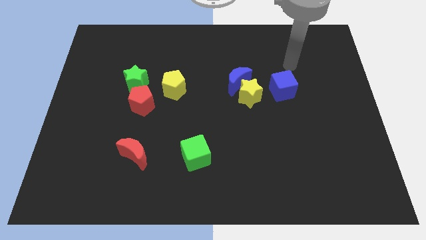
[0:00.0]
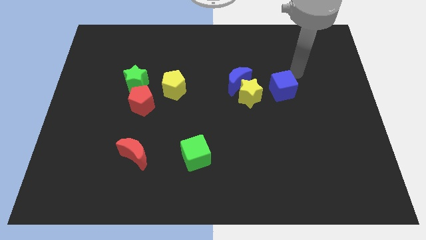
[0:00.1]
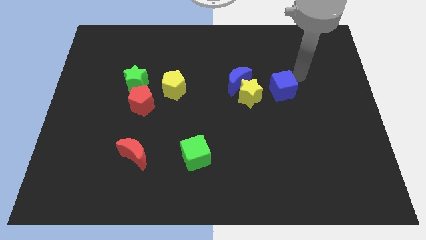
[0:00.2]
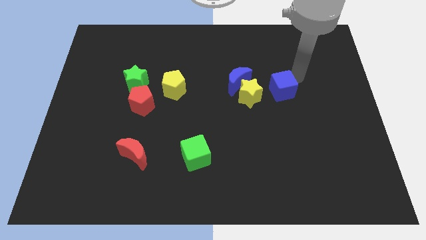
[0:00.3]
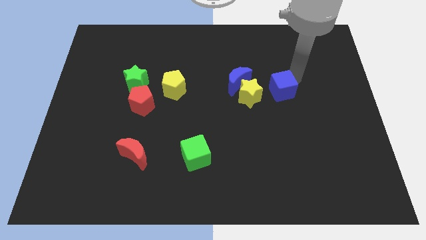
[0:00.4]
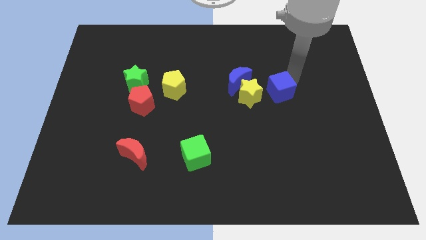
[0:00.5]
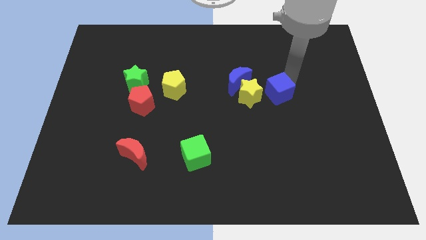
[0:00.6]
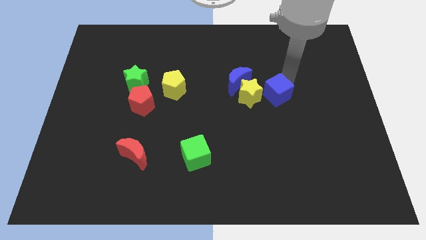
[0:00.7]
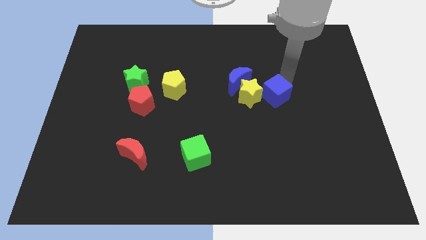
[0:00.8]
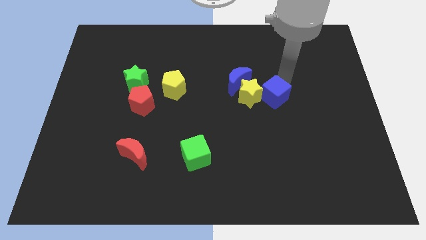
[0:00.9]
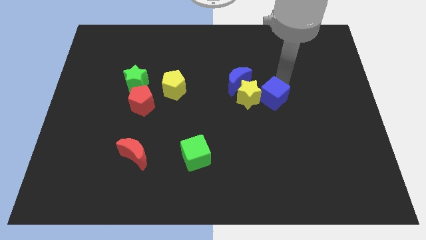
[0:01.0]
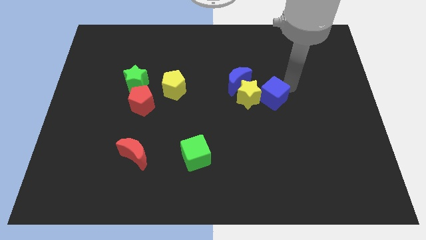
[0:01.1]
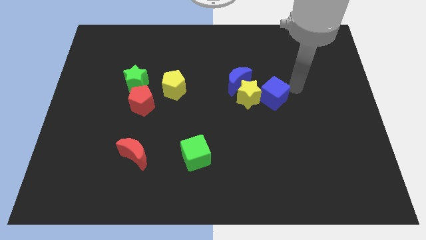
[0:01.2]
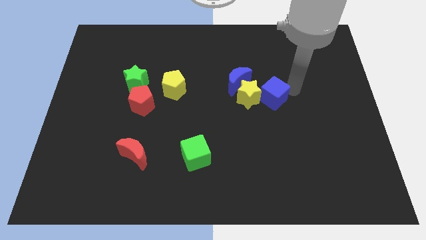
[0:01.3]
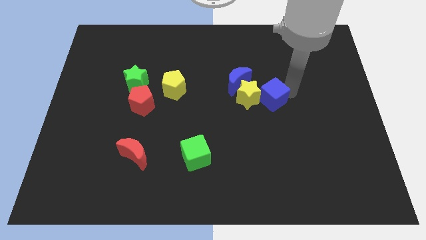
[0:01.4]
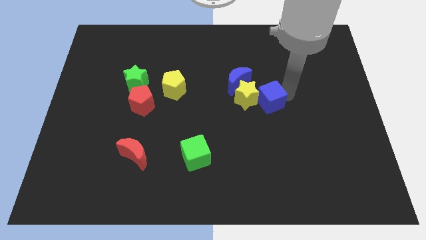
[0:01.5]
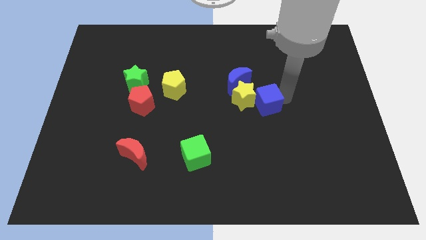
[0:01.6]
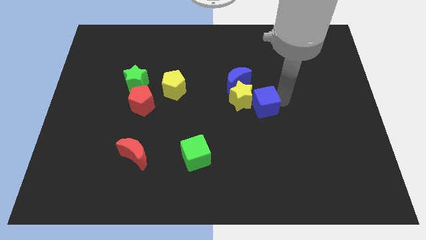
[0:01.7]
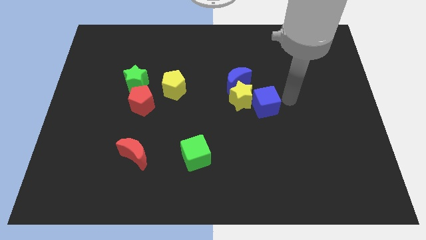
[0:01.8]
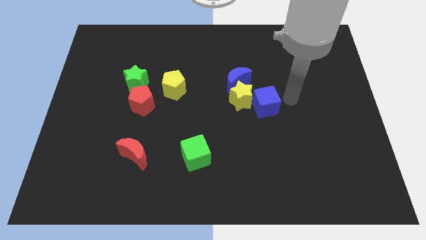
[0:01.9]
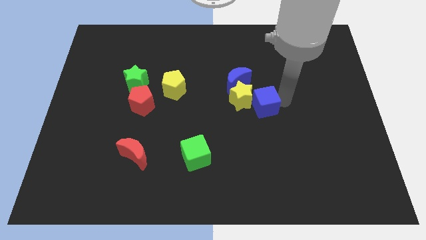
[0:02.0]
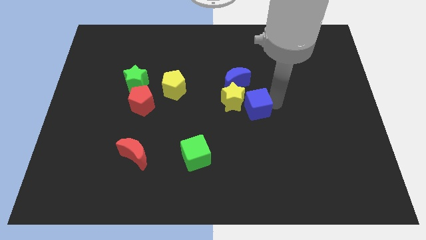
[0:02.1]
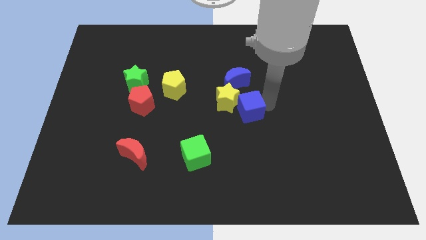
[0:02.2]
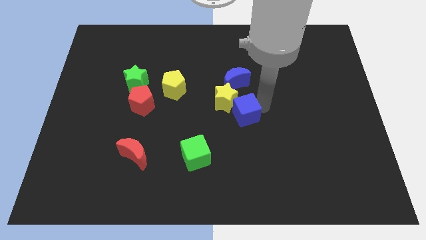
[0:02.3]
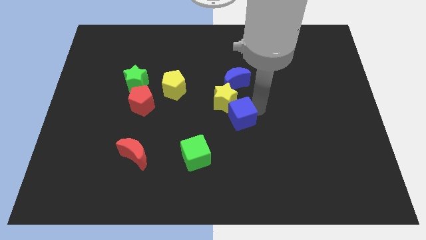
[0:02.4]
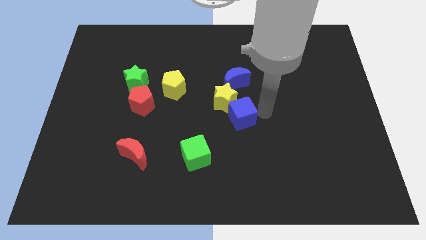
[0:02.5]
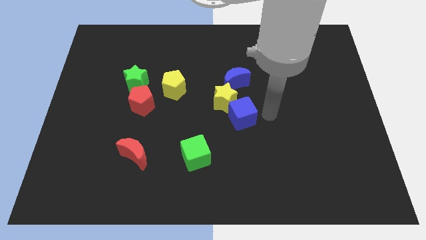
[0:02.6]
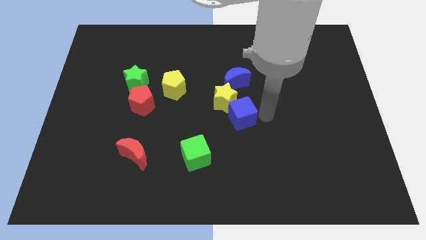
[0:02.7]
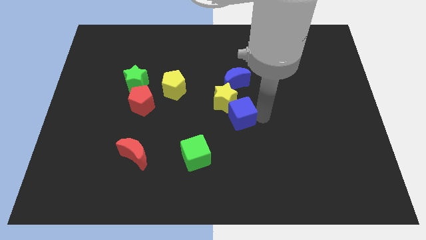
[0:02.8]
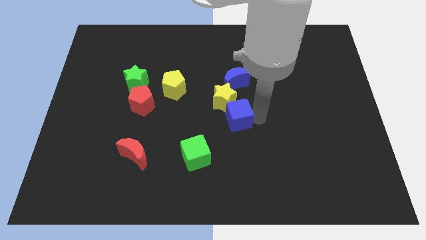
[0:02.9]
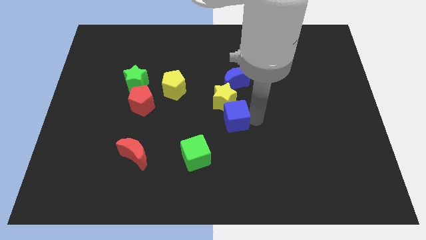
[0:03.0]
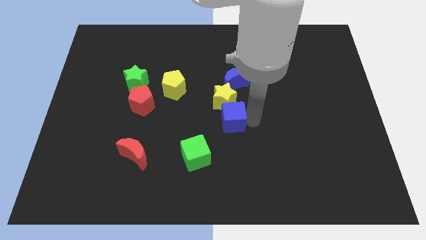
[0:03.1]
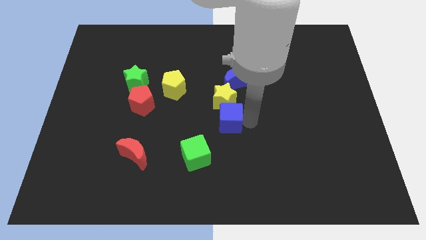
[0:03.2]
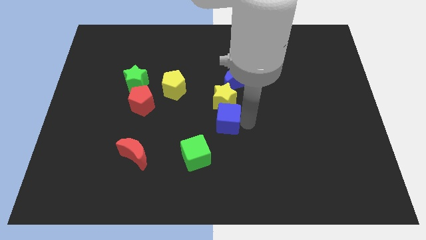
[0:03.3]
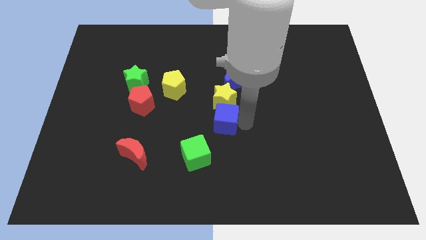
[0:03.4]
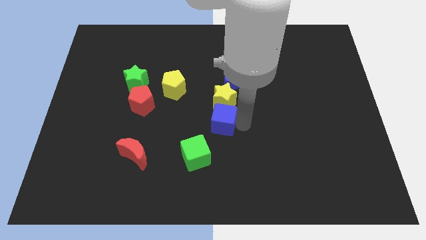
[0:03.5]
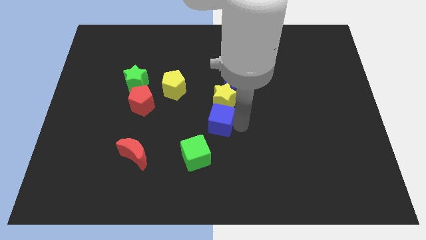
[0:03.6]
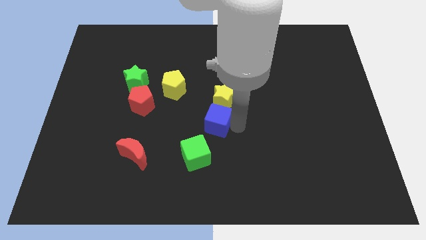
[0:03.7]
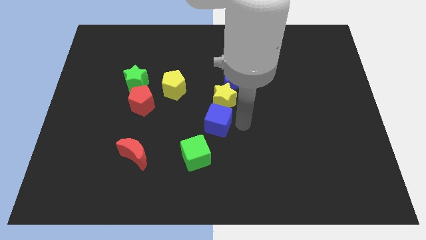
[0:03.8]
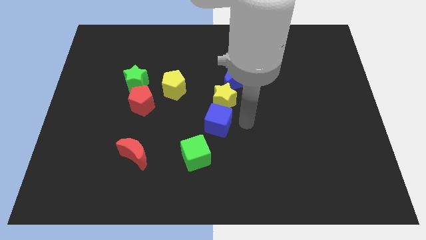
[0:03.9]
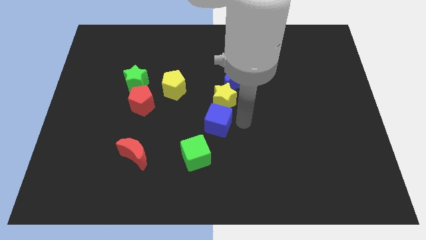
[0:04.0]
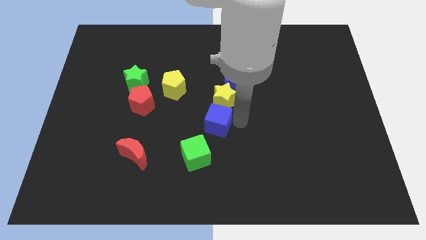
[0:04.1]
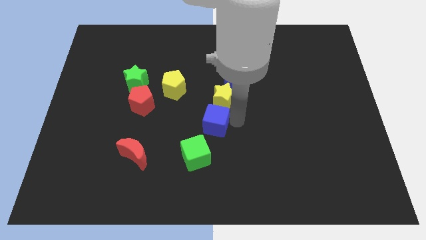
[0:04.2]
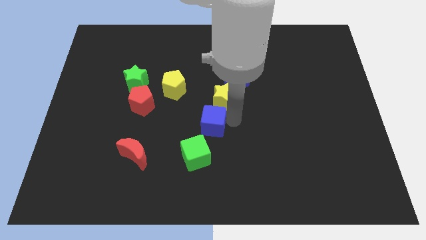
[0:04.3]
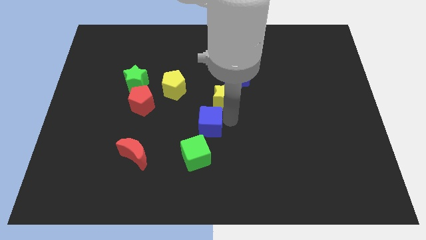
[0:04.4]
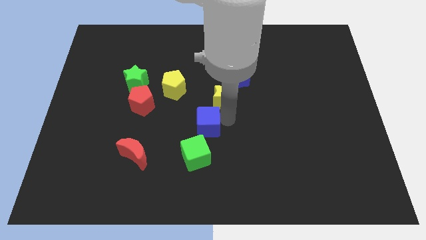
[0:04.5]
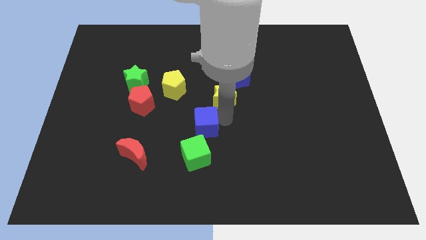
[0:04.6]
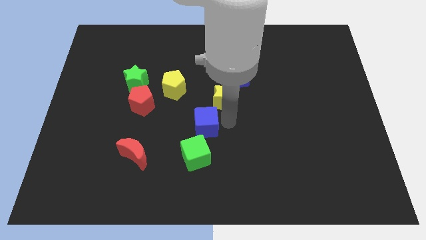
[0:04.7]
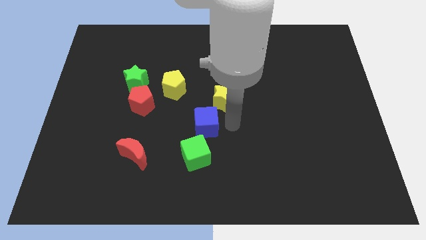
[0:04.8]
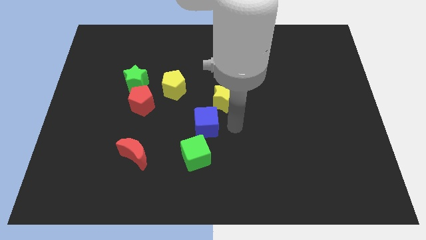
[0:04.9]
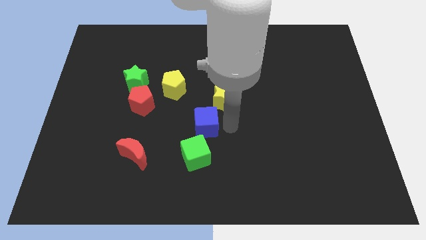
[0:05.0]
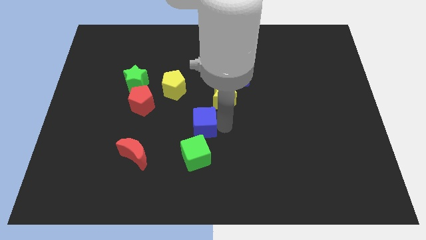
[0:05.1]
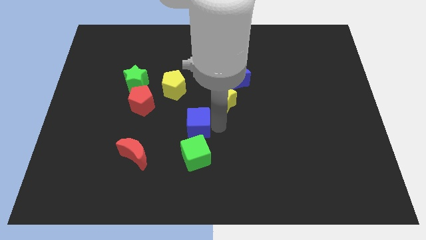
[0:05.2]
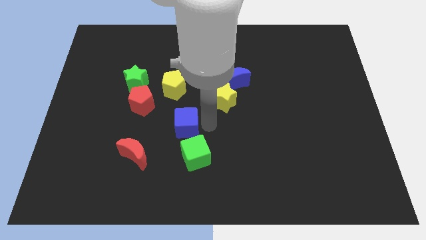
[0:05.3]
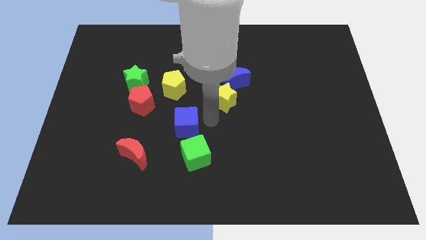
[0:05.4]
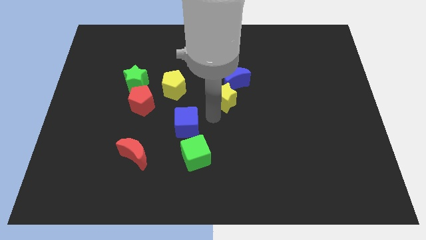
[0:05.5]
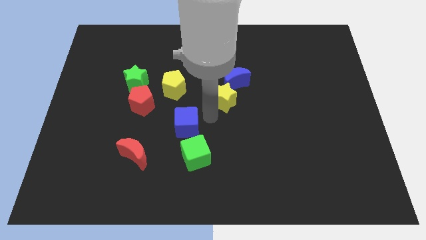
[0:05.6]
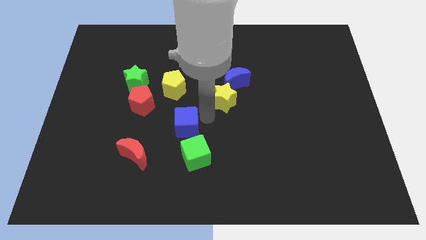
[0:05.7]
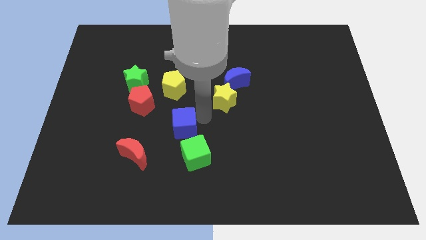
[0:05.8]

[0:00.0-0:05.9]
push the blue cube to the top right of the red moon

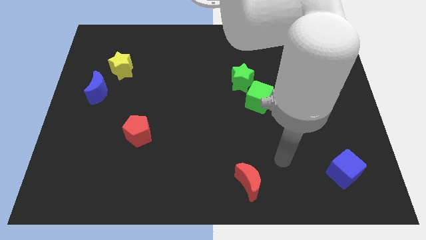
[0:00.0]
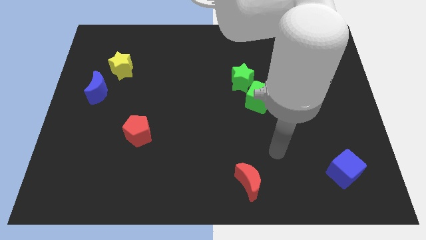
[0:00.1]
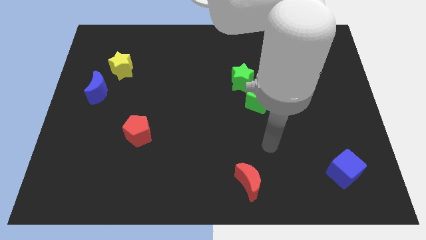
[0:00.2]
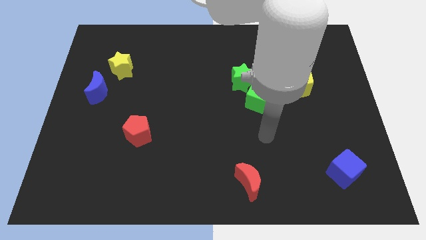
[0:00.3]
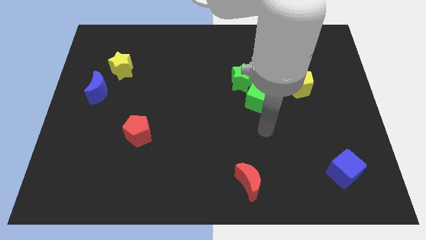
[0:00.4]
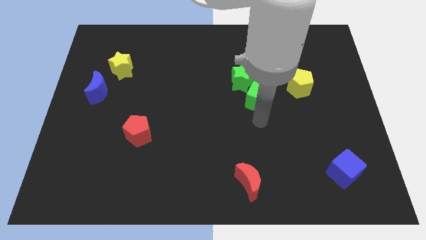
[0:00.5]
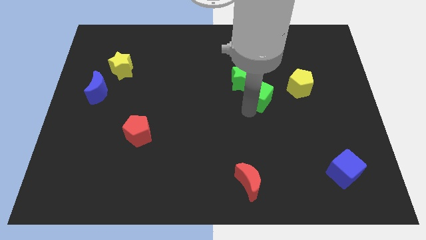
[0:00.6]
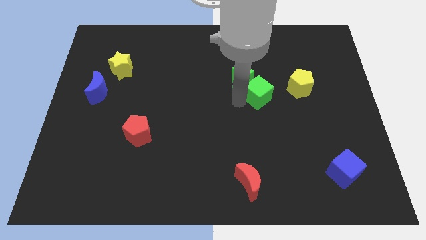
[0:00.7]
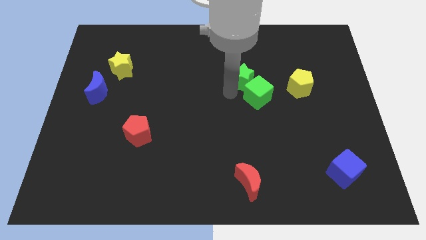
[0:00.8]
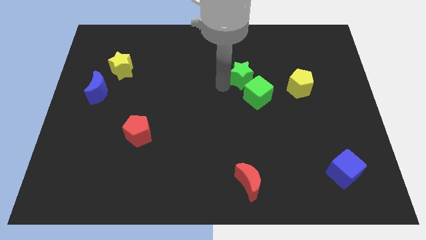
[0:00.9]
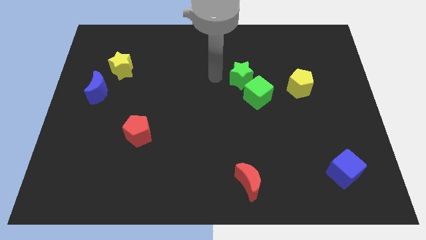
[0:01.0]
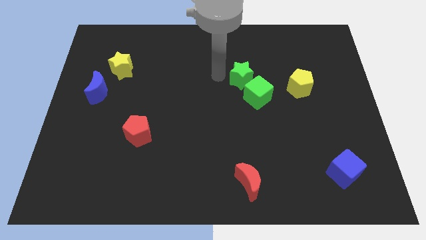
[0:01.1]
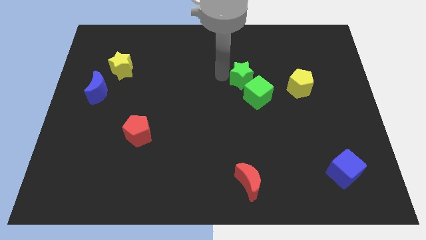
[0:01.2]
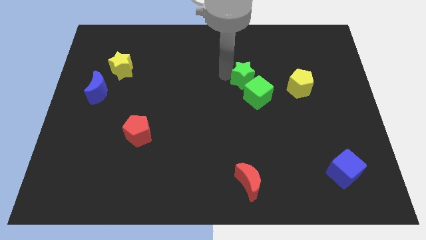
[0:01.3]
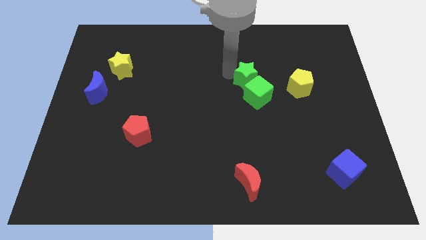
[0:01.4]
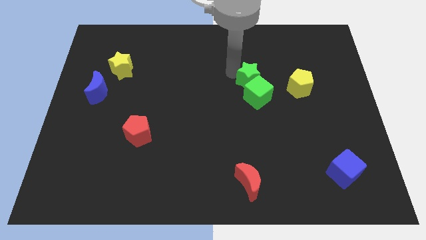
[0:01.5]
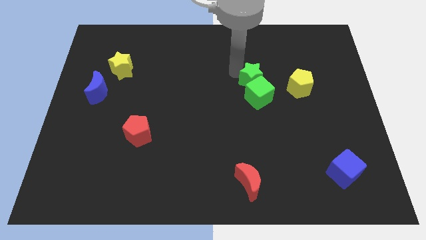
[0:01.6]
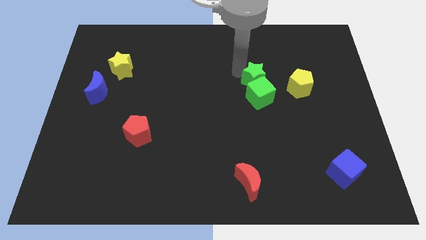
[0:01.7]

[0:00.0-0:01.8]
move the green star to the top right side of the green cube

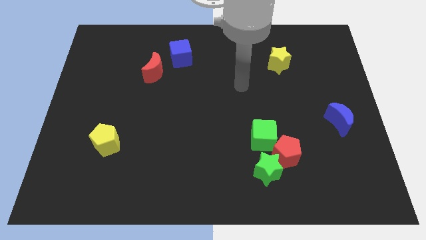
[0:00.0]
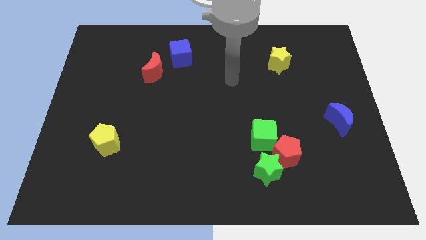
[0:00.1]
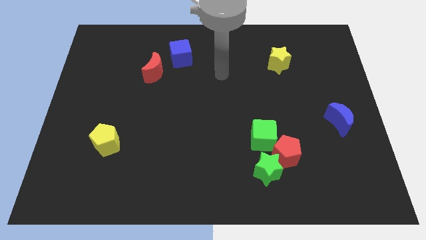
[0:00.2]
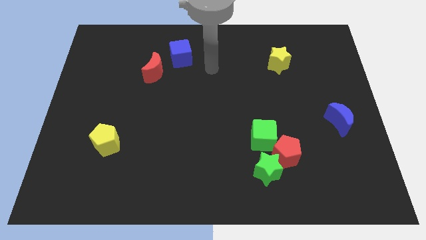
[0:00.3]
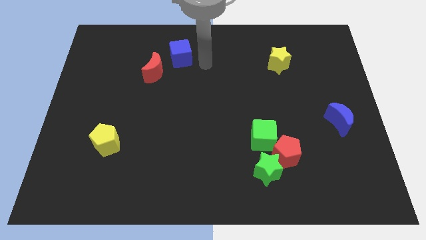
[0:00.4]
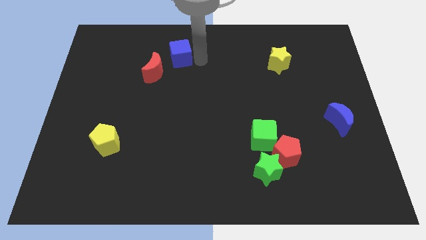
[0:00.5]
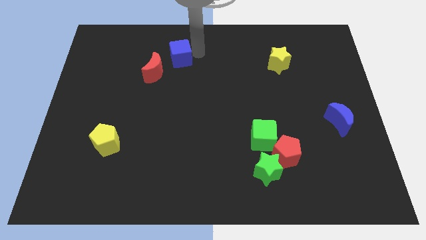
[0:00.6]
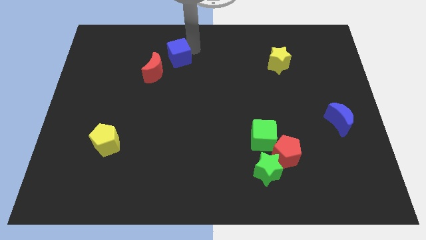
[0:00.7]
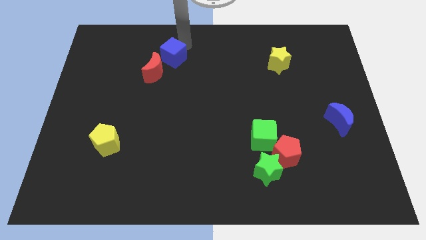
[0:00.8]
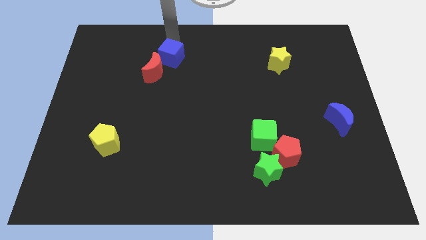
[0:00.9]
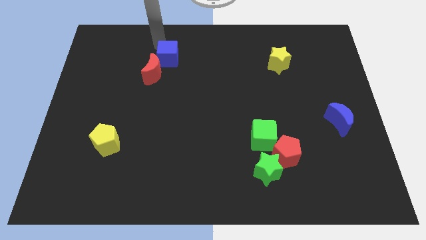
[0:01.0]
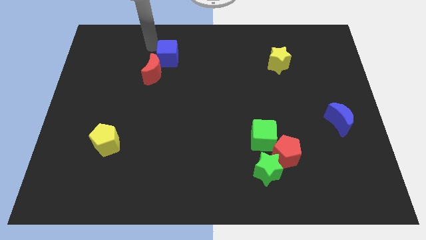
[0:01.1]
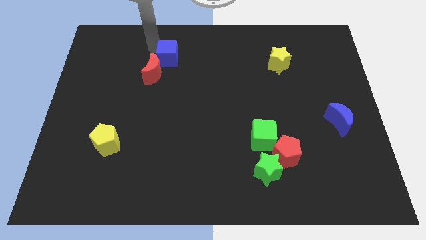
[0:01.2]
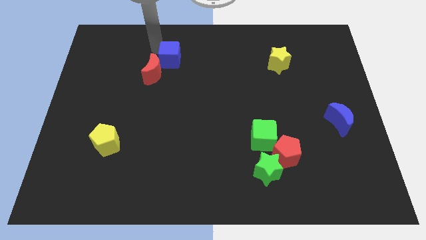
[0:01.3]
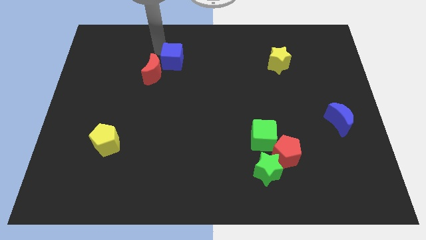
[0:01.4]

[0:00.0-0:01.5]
slide the blue cube right of the red moon
